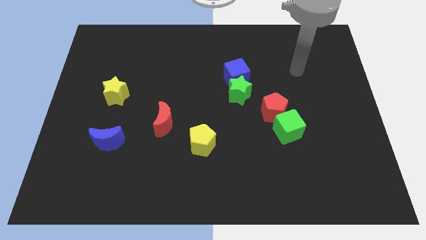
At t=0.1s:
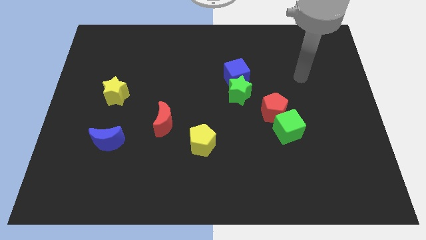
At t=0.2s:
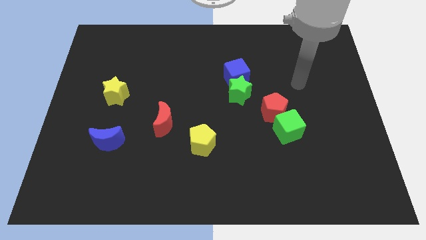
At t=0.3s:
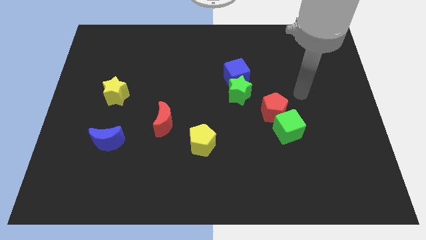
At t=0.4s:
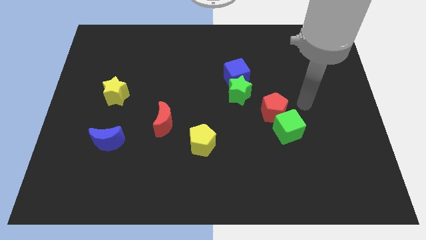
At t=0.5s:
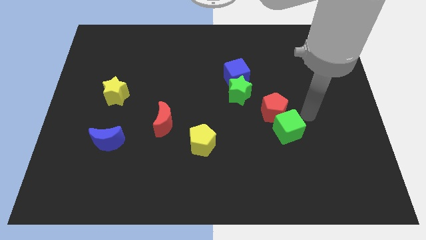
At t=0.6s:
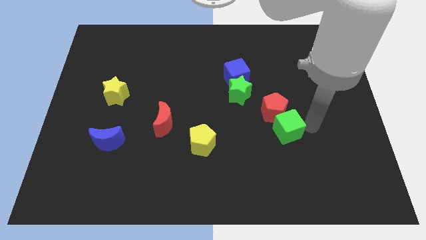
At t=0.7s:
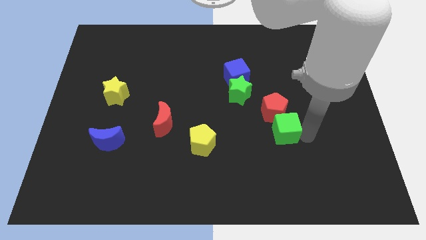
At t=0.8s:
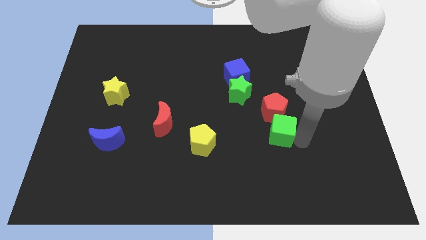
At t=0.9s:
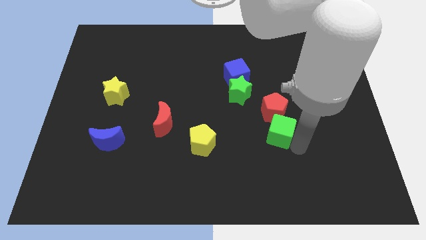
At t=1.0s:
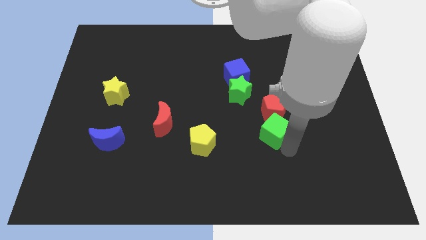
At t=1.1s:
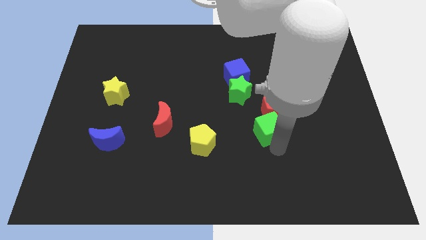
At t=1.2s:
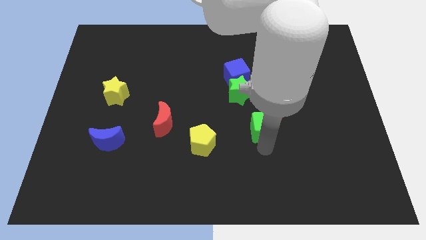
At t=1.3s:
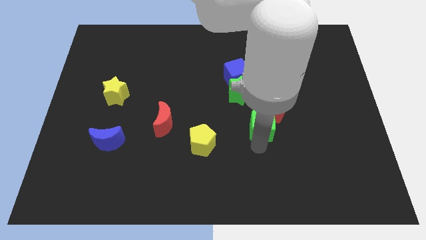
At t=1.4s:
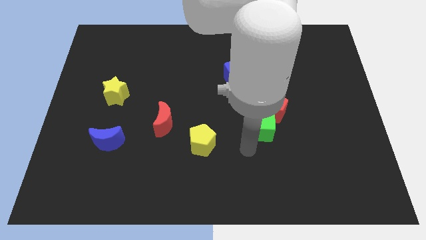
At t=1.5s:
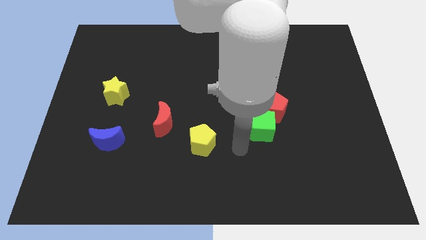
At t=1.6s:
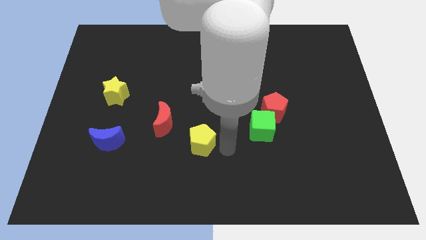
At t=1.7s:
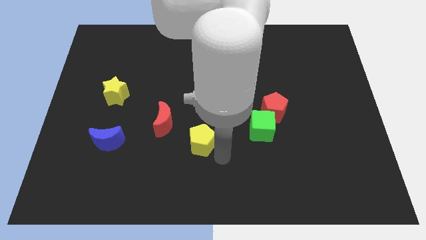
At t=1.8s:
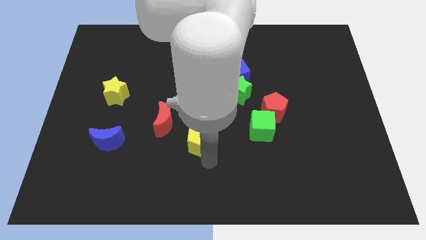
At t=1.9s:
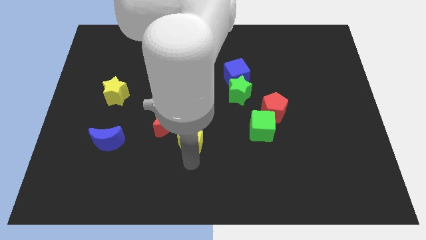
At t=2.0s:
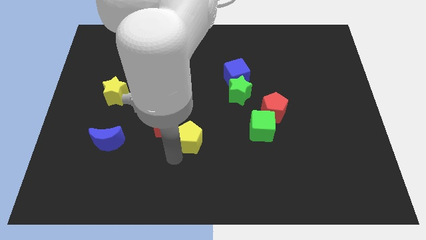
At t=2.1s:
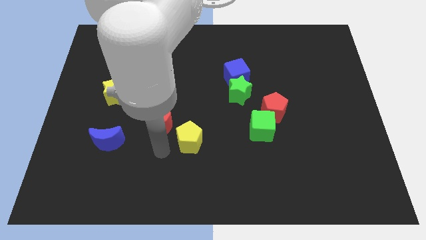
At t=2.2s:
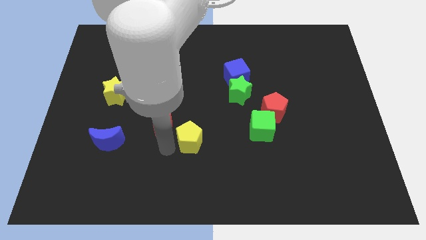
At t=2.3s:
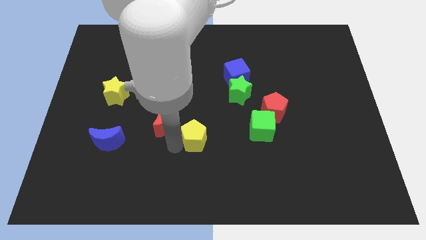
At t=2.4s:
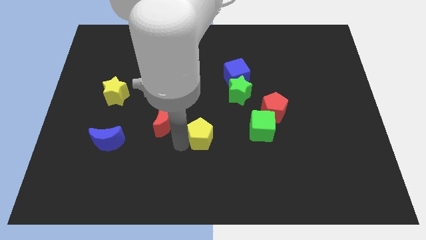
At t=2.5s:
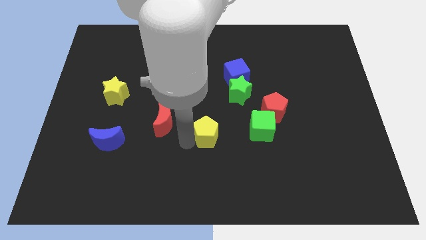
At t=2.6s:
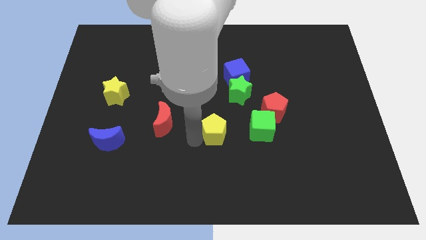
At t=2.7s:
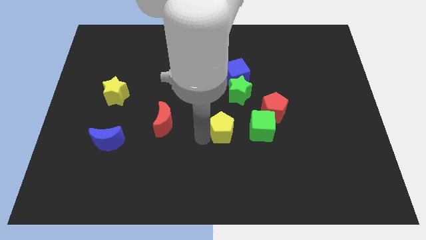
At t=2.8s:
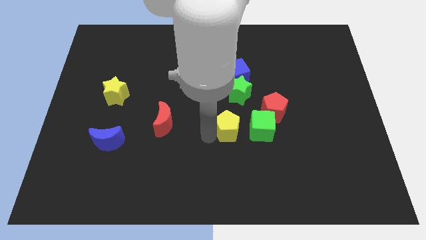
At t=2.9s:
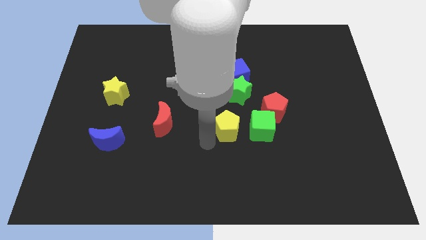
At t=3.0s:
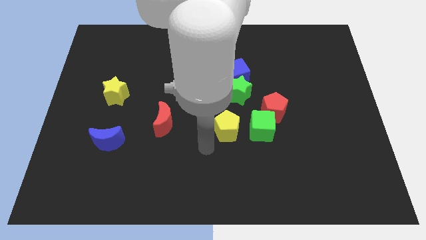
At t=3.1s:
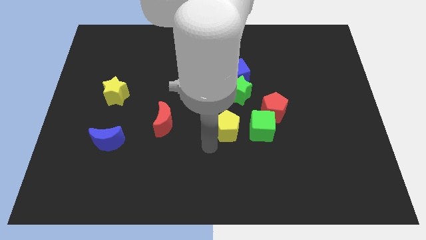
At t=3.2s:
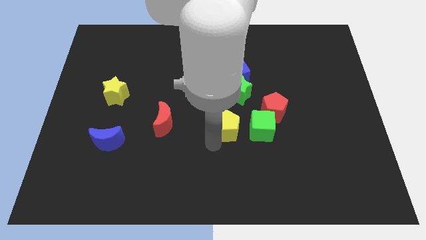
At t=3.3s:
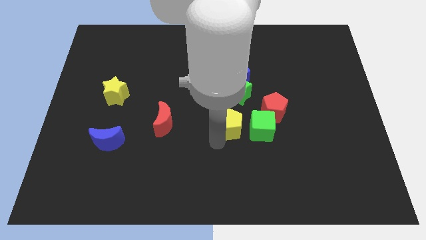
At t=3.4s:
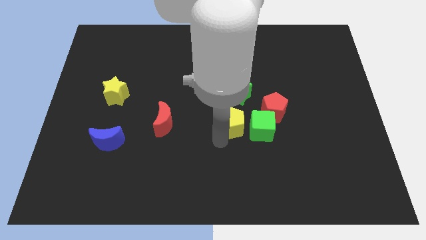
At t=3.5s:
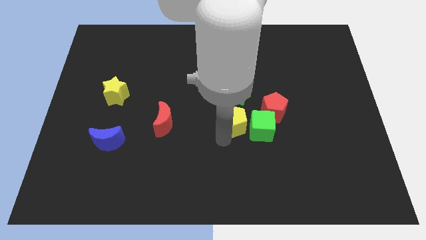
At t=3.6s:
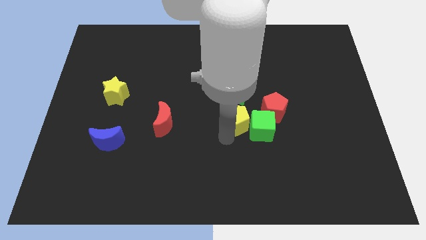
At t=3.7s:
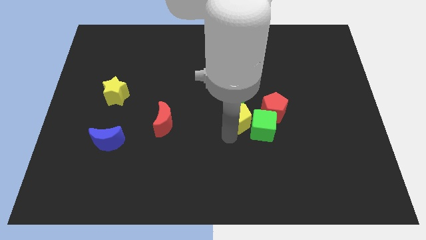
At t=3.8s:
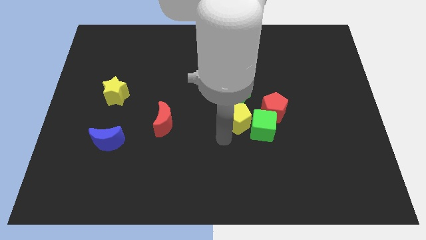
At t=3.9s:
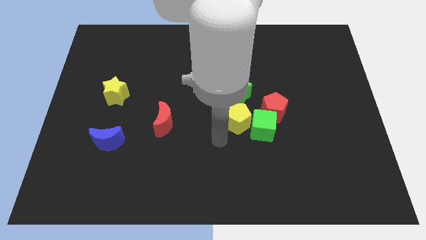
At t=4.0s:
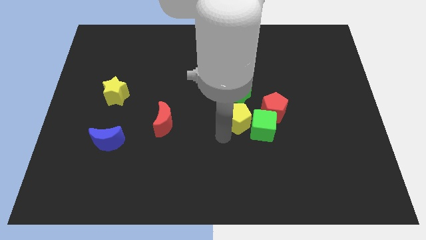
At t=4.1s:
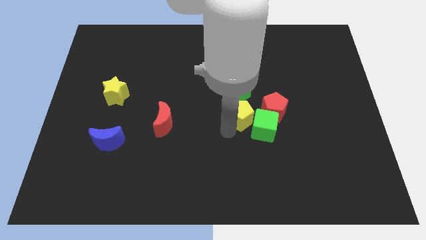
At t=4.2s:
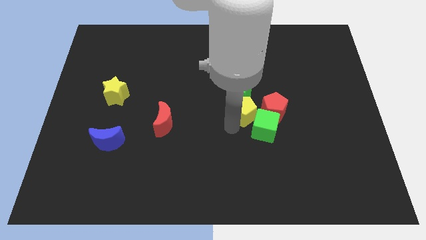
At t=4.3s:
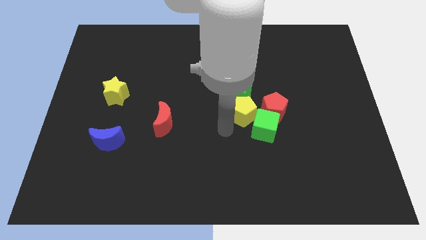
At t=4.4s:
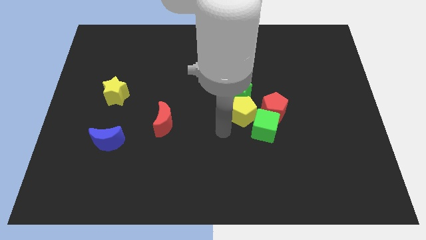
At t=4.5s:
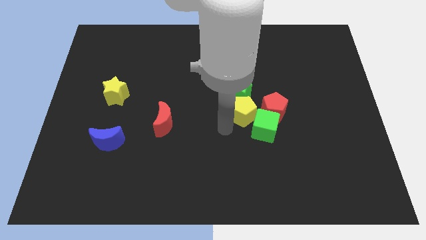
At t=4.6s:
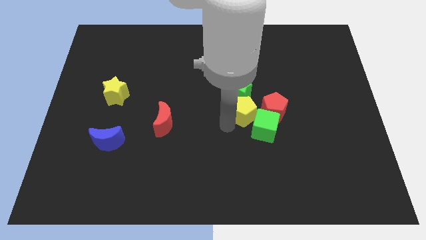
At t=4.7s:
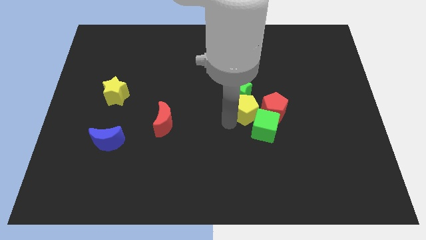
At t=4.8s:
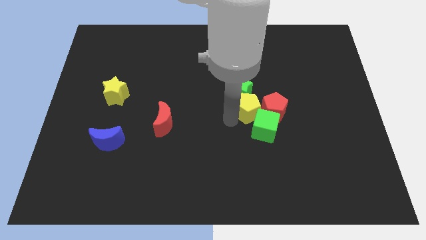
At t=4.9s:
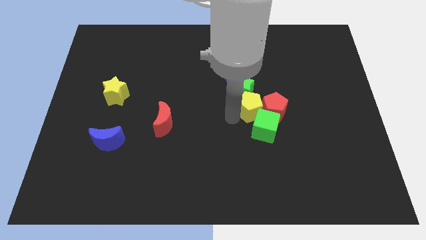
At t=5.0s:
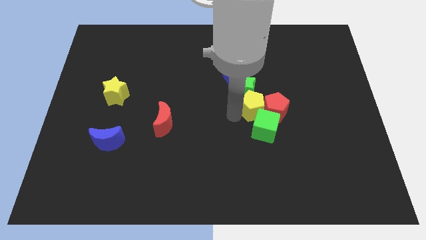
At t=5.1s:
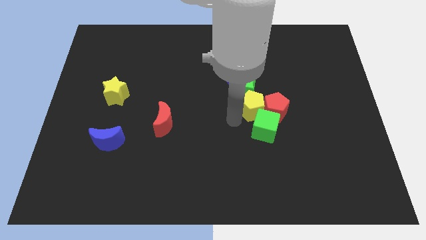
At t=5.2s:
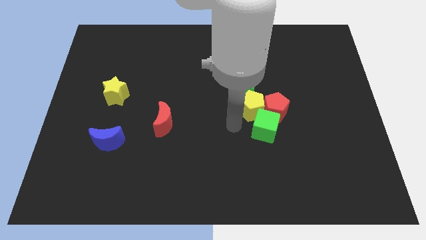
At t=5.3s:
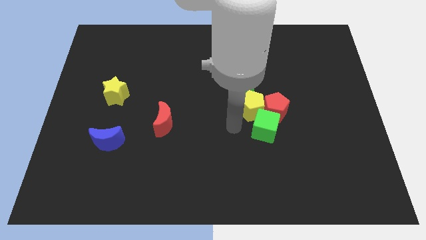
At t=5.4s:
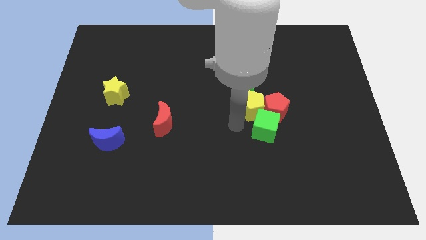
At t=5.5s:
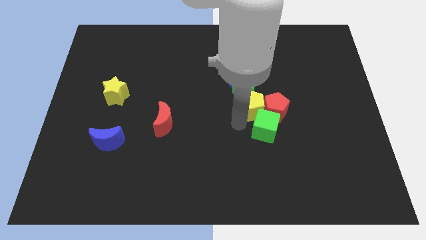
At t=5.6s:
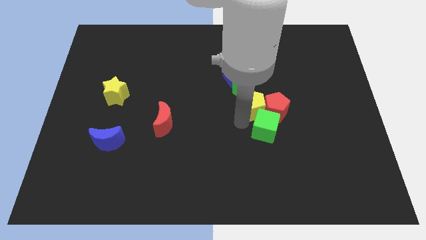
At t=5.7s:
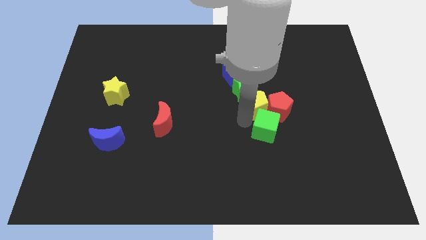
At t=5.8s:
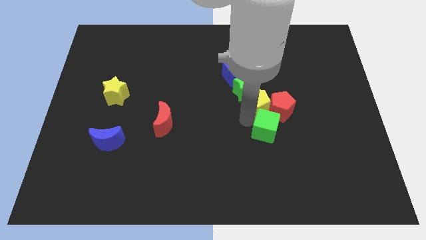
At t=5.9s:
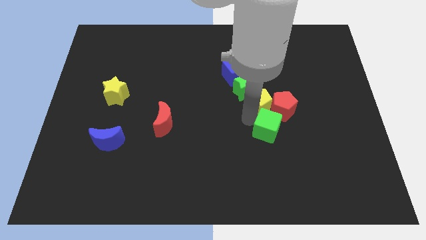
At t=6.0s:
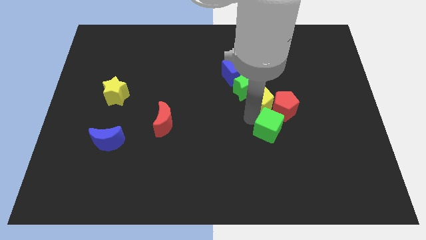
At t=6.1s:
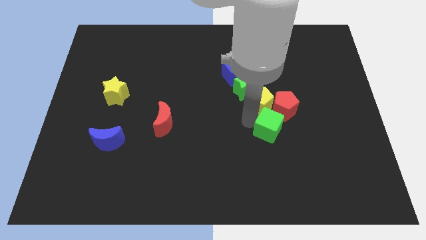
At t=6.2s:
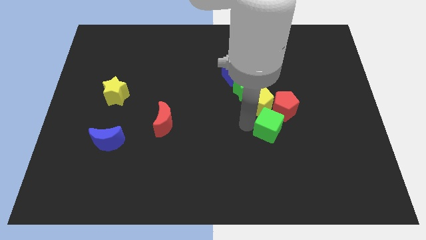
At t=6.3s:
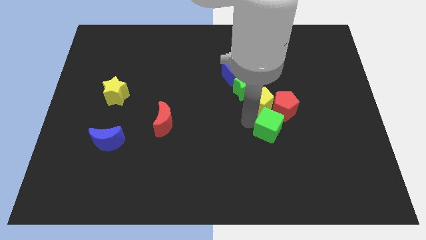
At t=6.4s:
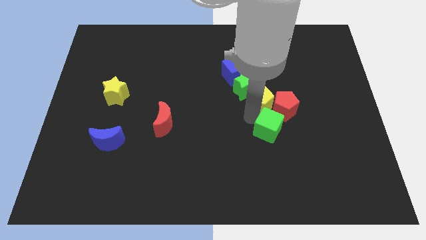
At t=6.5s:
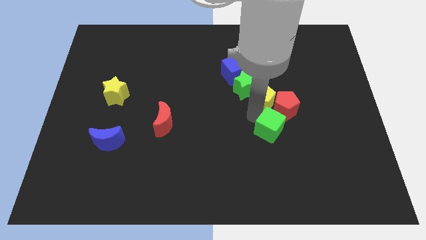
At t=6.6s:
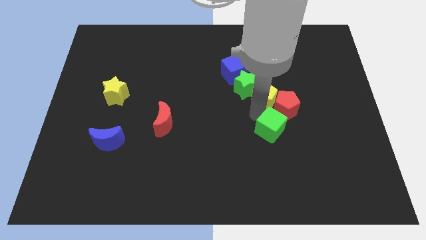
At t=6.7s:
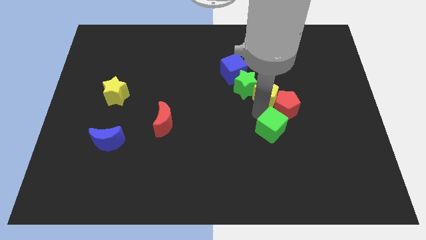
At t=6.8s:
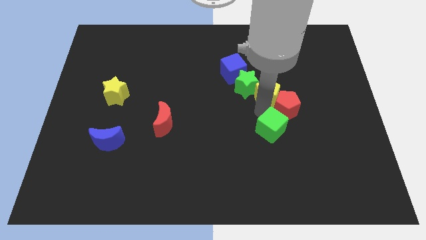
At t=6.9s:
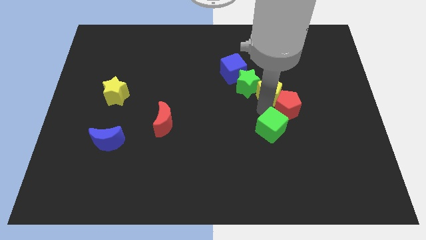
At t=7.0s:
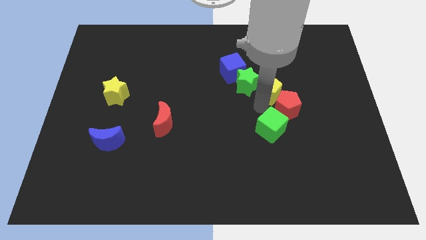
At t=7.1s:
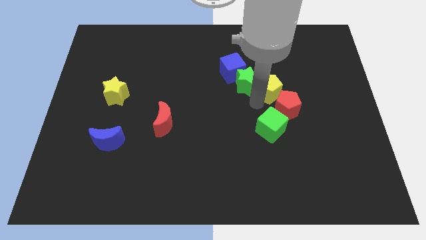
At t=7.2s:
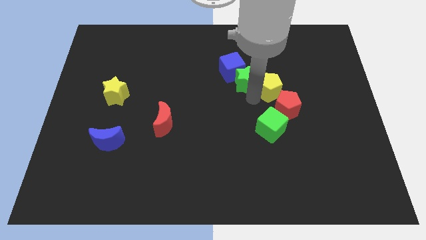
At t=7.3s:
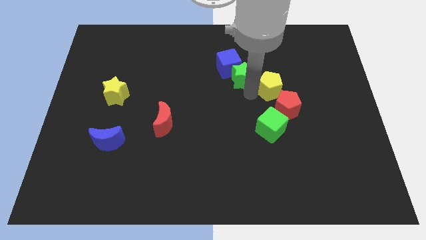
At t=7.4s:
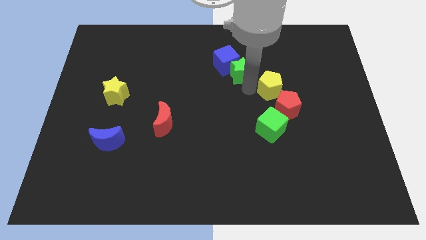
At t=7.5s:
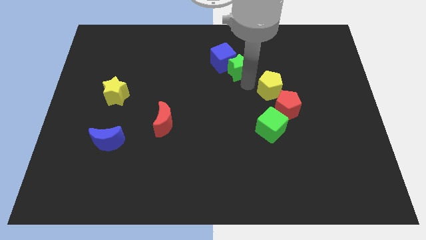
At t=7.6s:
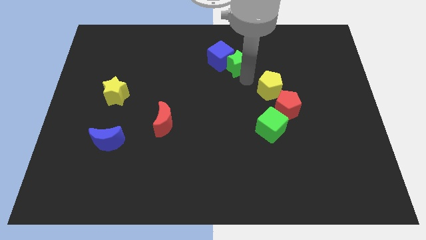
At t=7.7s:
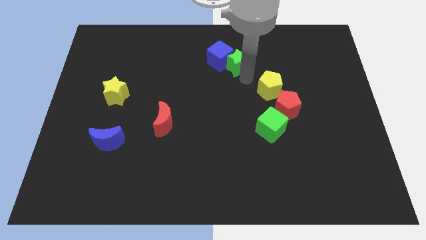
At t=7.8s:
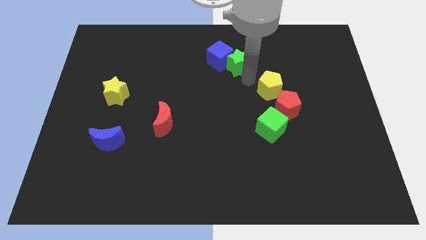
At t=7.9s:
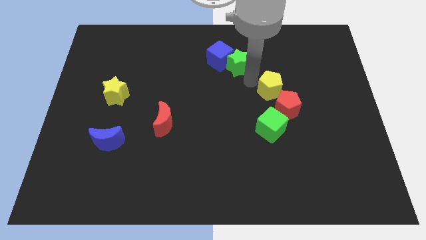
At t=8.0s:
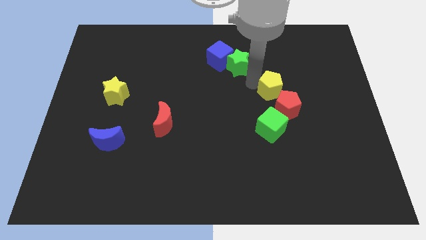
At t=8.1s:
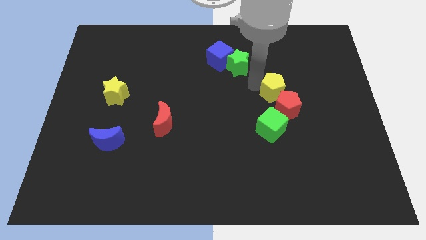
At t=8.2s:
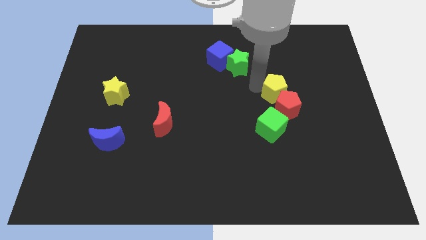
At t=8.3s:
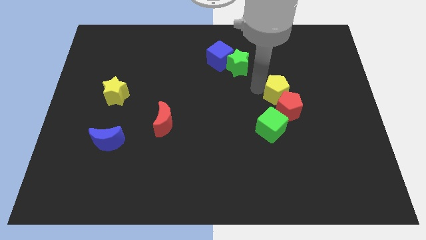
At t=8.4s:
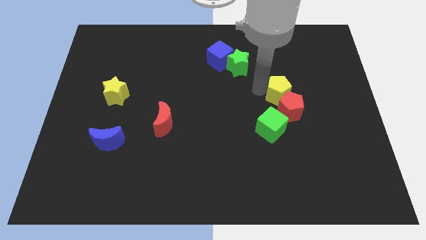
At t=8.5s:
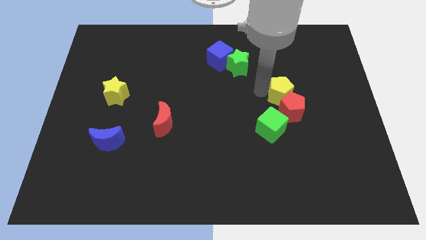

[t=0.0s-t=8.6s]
push the yellow pentagon to the top right side of the green cube
